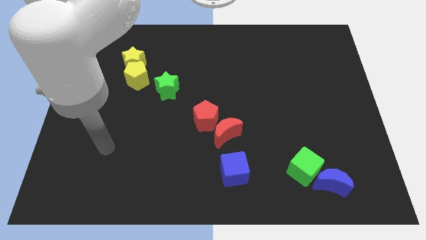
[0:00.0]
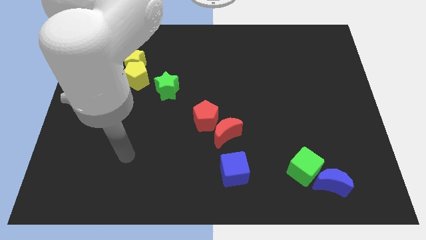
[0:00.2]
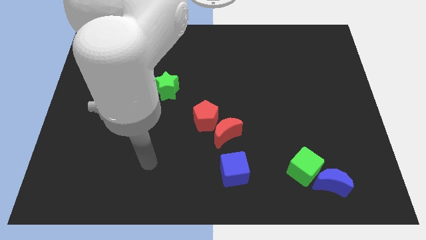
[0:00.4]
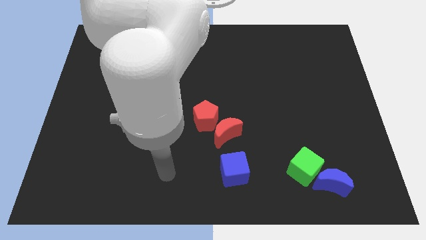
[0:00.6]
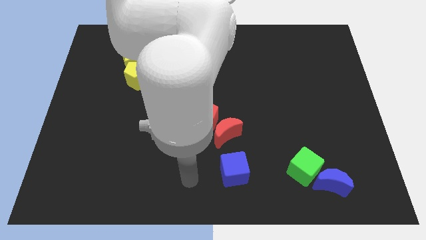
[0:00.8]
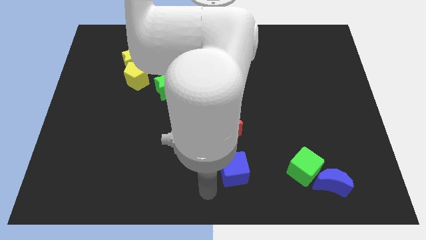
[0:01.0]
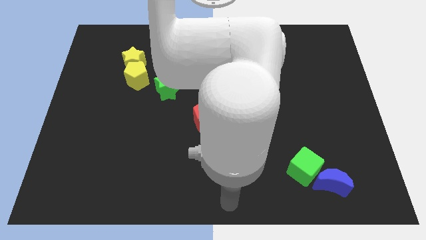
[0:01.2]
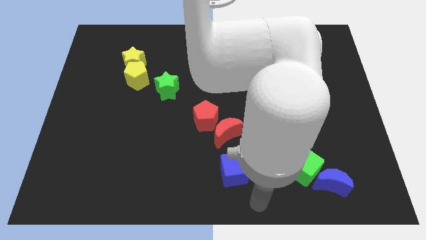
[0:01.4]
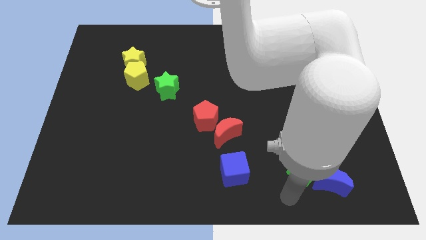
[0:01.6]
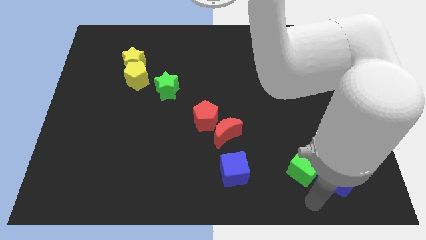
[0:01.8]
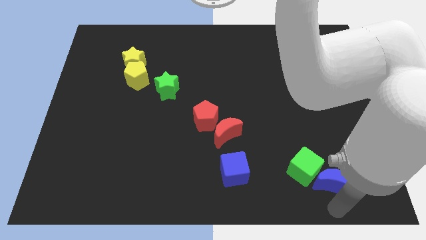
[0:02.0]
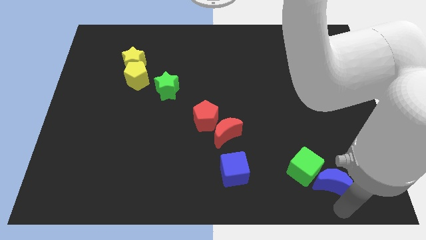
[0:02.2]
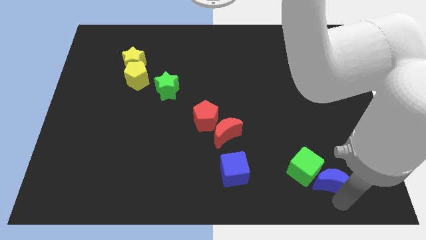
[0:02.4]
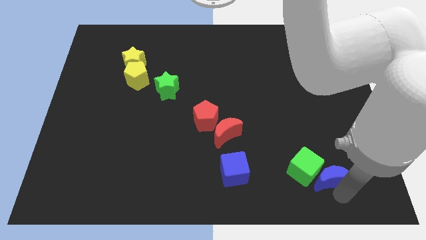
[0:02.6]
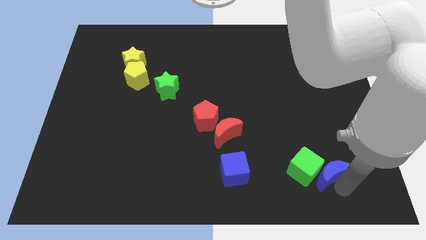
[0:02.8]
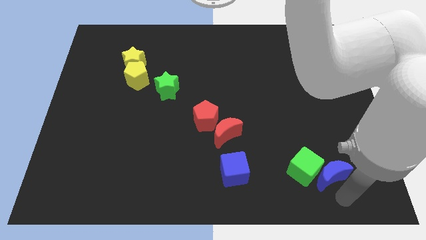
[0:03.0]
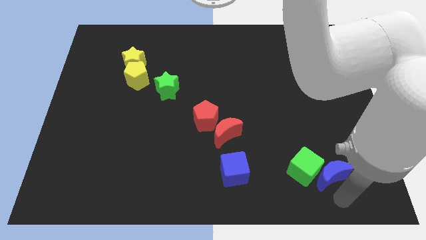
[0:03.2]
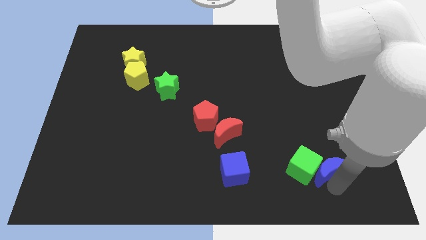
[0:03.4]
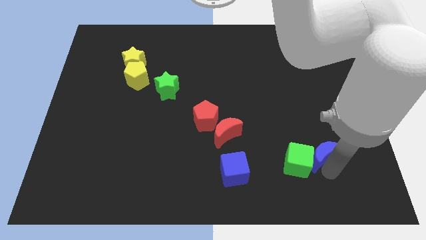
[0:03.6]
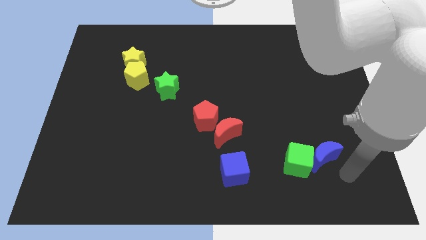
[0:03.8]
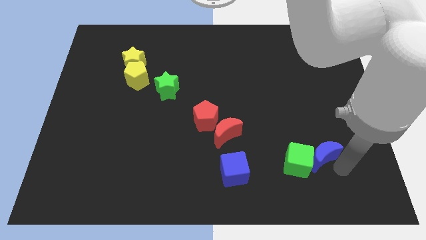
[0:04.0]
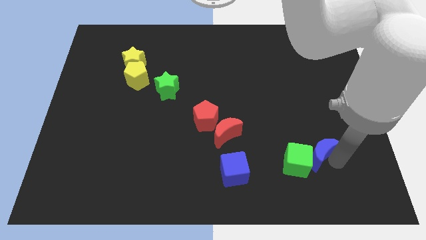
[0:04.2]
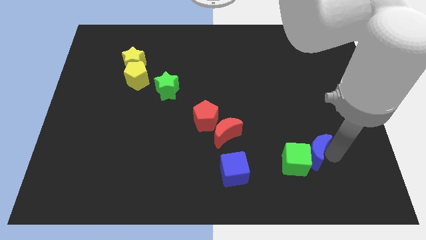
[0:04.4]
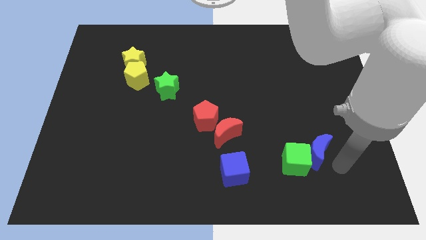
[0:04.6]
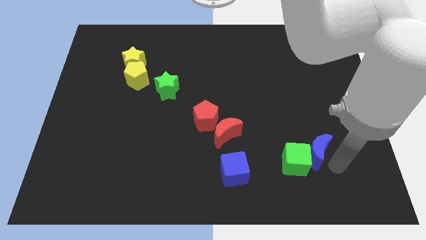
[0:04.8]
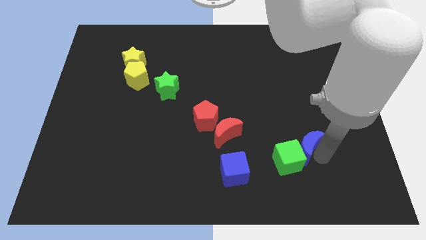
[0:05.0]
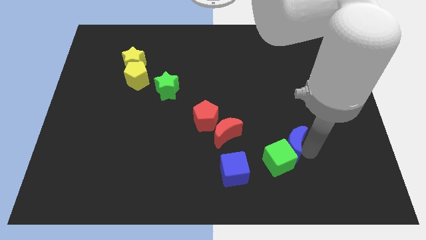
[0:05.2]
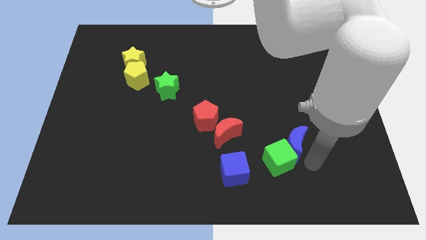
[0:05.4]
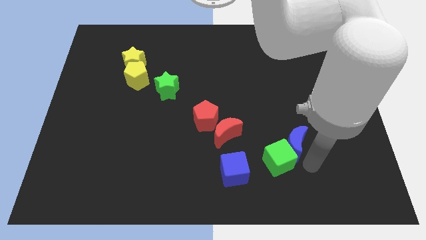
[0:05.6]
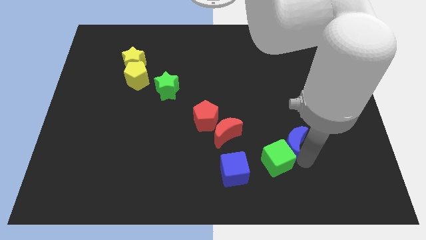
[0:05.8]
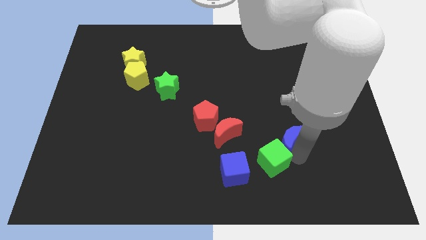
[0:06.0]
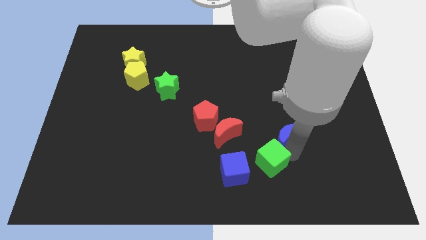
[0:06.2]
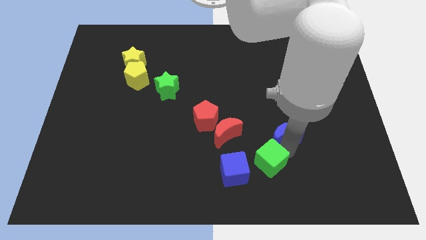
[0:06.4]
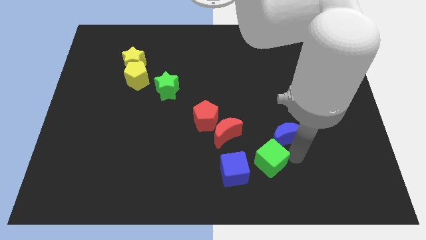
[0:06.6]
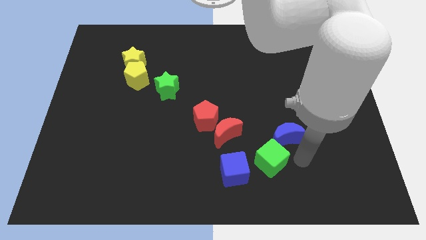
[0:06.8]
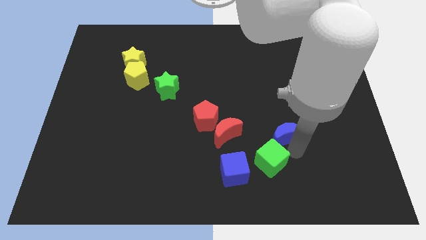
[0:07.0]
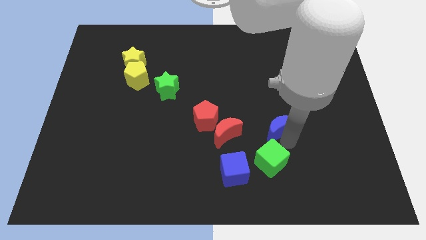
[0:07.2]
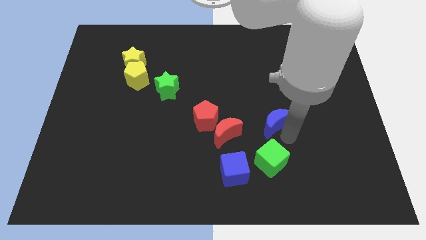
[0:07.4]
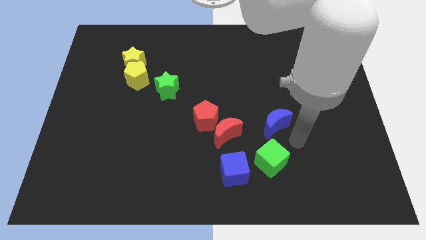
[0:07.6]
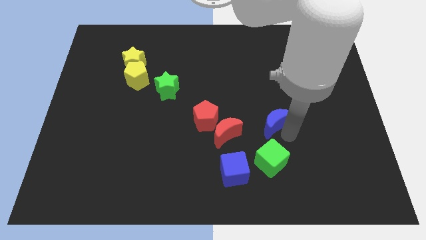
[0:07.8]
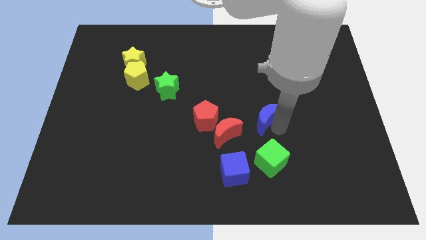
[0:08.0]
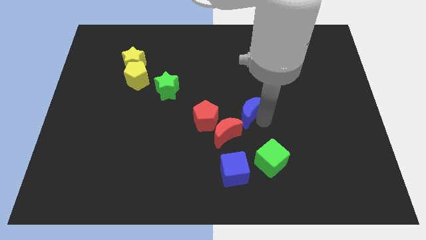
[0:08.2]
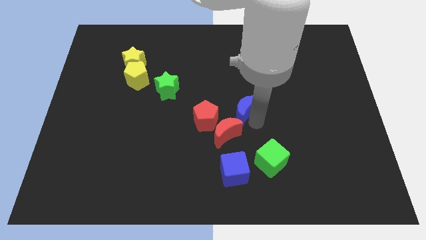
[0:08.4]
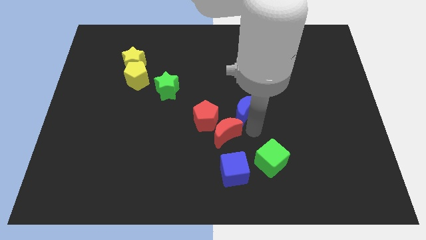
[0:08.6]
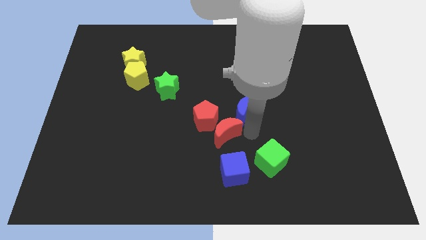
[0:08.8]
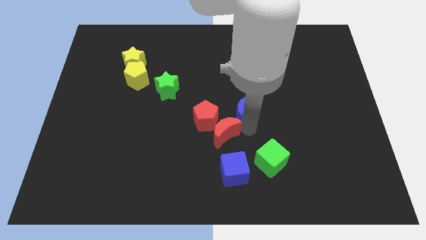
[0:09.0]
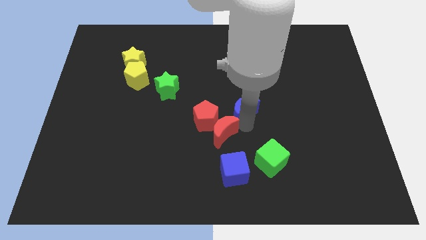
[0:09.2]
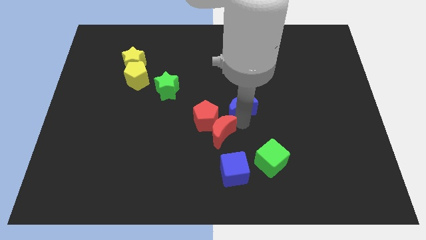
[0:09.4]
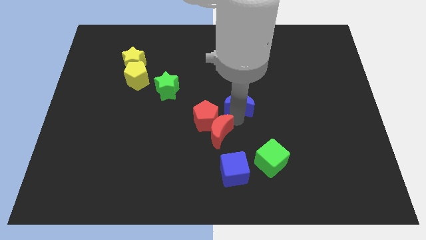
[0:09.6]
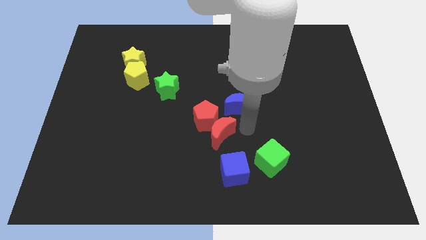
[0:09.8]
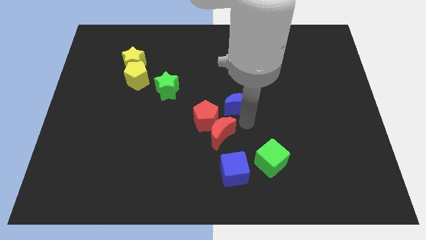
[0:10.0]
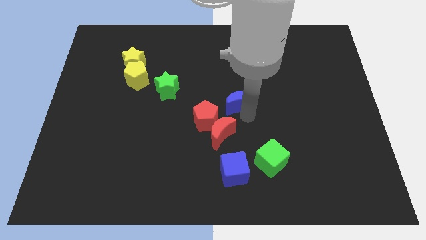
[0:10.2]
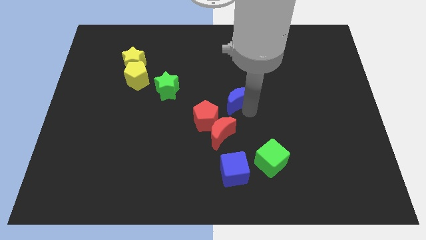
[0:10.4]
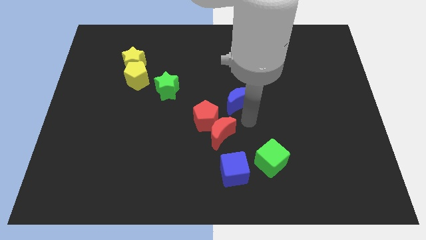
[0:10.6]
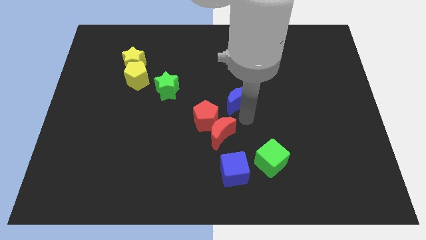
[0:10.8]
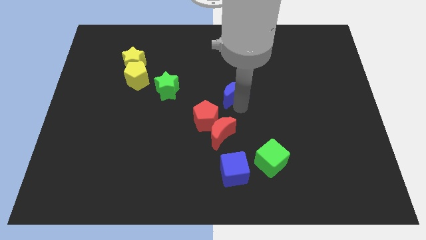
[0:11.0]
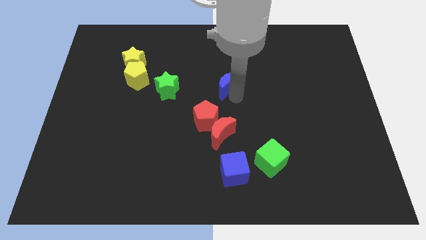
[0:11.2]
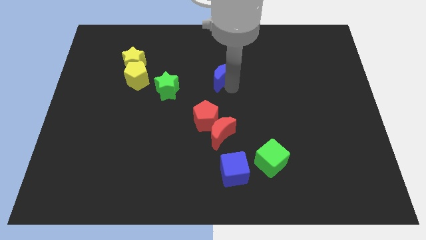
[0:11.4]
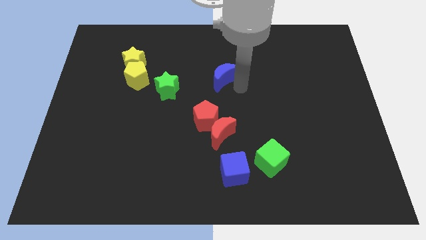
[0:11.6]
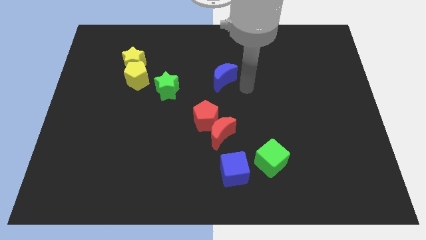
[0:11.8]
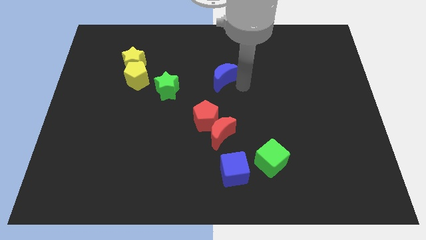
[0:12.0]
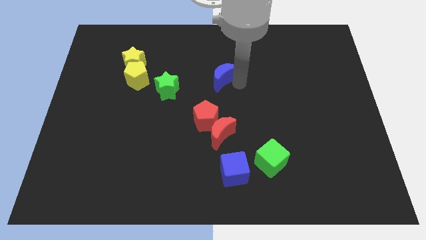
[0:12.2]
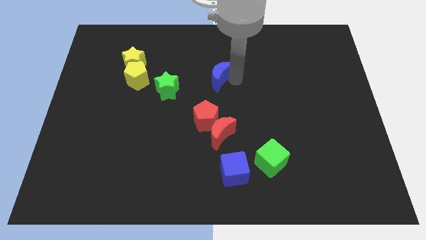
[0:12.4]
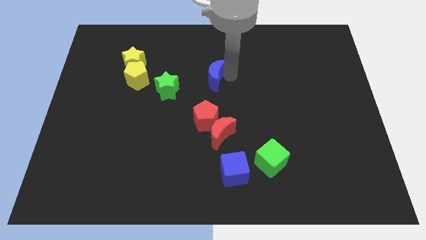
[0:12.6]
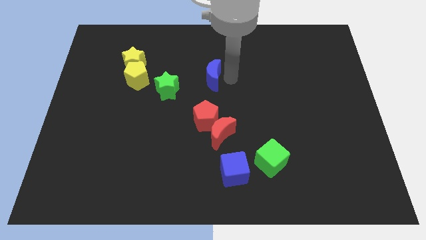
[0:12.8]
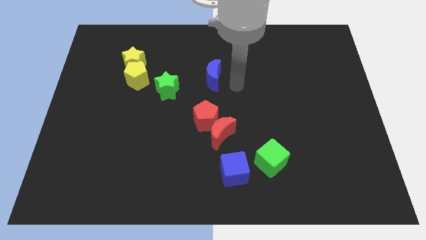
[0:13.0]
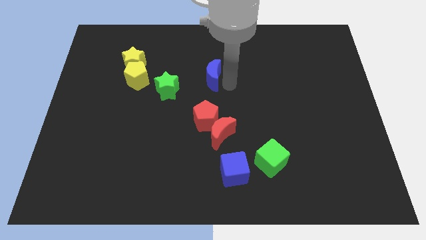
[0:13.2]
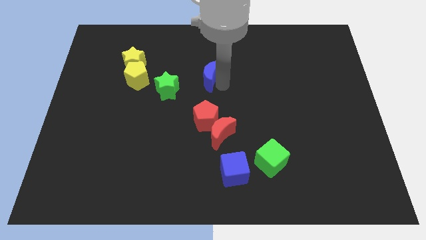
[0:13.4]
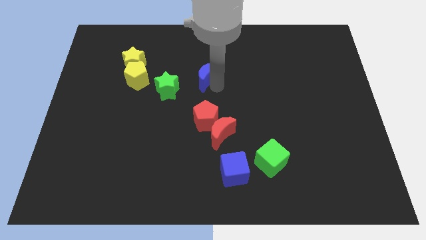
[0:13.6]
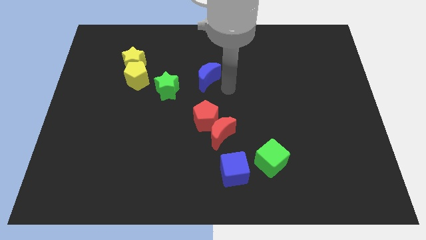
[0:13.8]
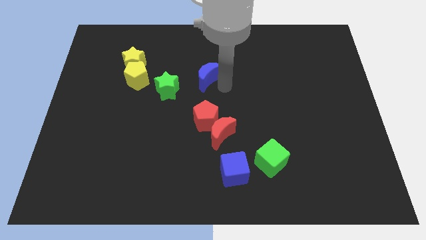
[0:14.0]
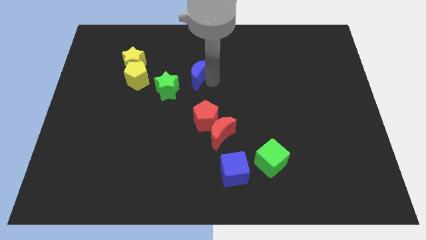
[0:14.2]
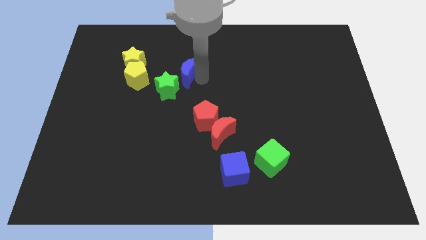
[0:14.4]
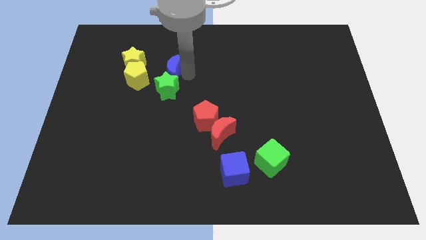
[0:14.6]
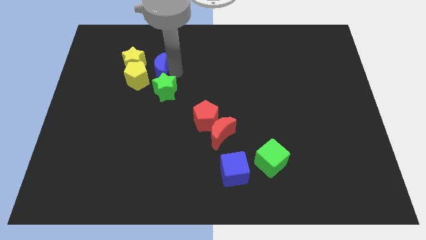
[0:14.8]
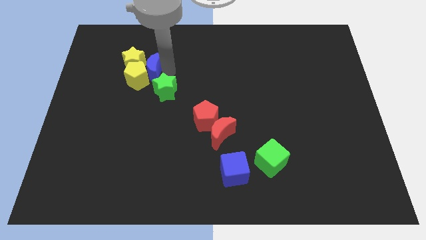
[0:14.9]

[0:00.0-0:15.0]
move the blue moon towards the yellow star
